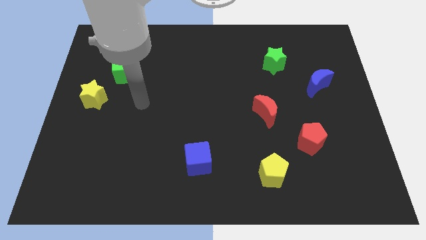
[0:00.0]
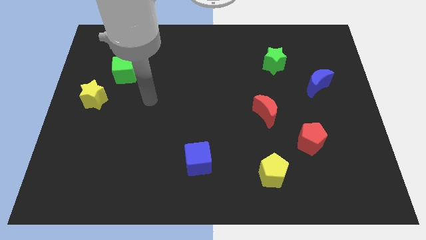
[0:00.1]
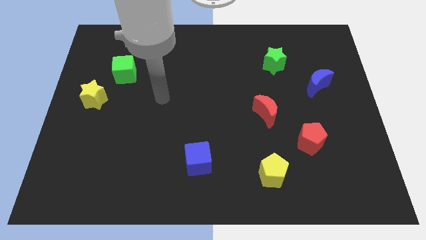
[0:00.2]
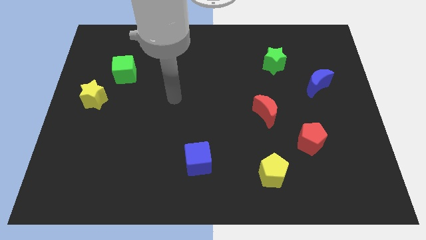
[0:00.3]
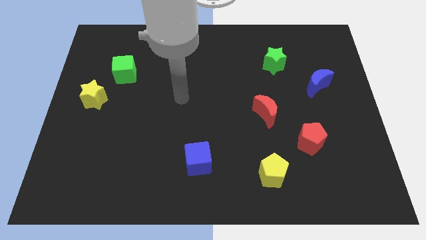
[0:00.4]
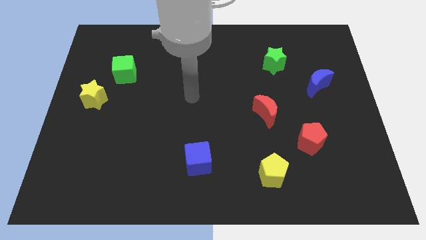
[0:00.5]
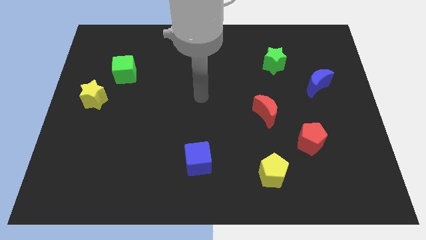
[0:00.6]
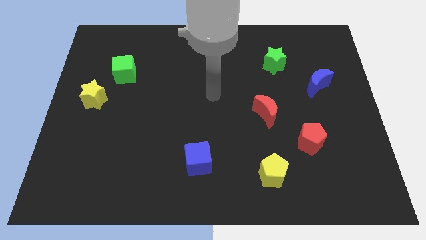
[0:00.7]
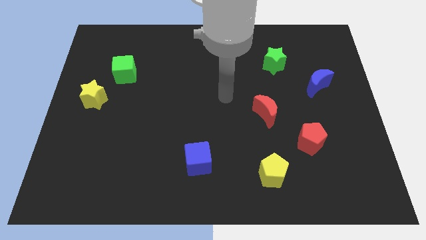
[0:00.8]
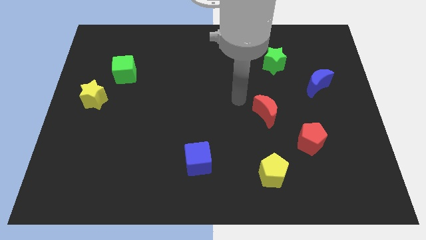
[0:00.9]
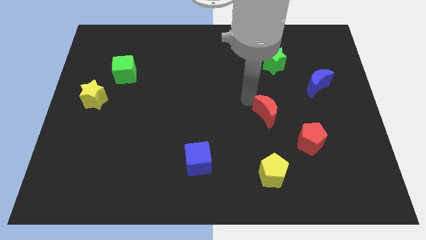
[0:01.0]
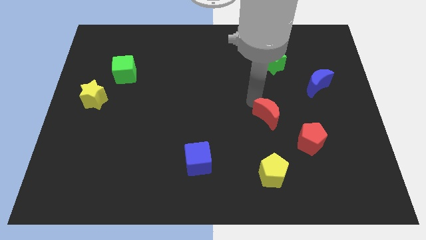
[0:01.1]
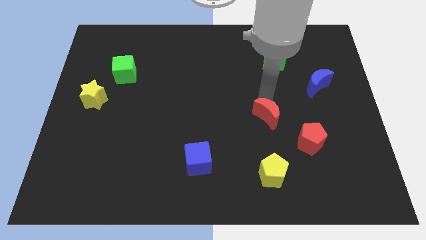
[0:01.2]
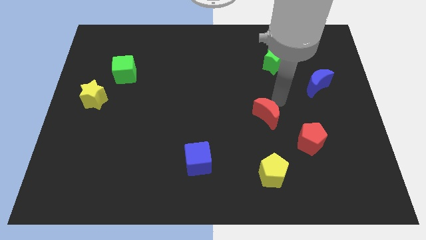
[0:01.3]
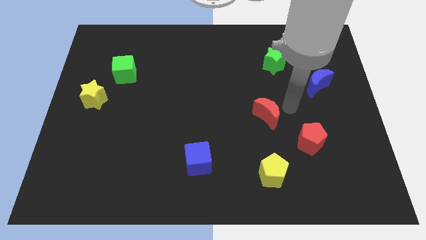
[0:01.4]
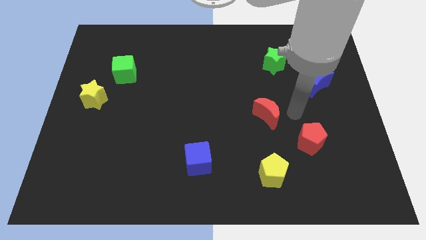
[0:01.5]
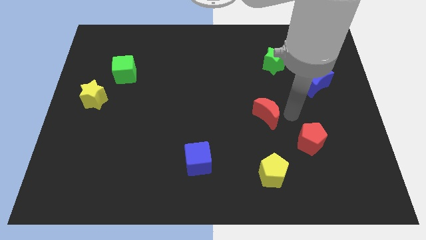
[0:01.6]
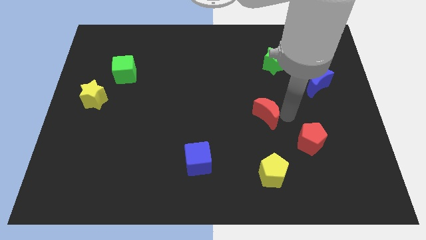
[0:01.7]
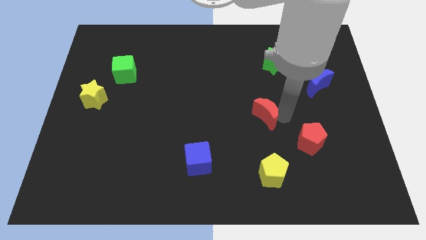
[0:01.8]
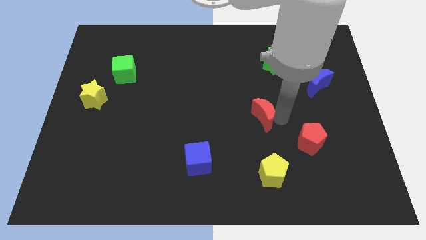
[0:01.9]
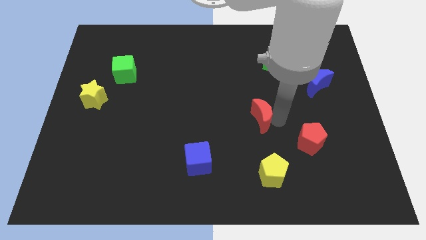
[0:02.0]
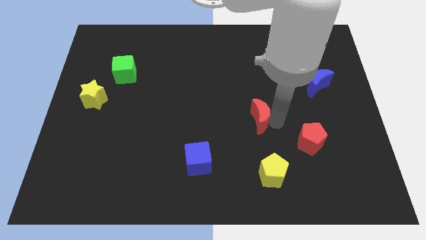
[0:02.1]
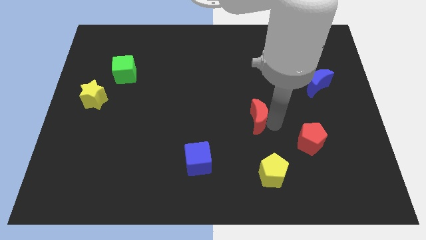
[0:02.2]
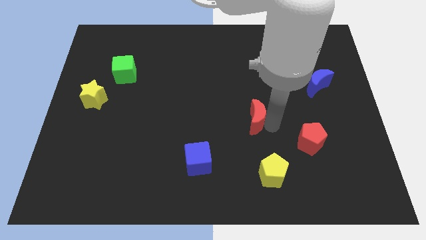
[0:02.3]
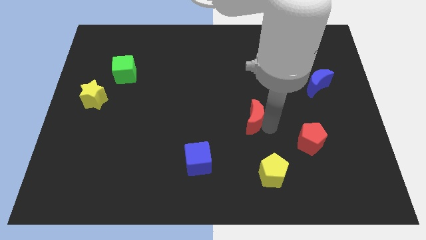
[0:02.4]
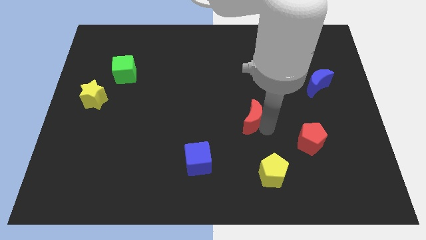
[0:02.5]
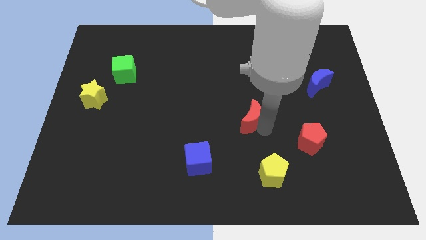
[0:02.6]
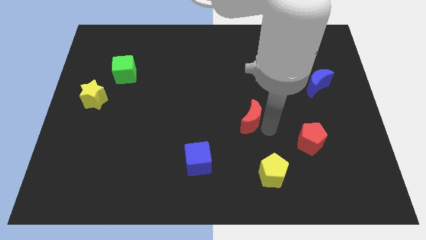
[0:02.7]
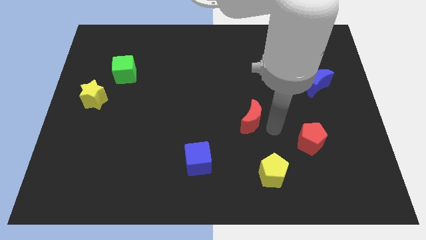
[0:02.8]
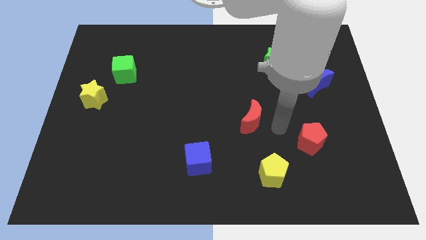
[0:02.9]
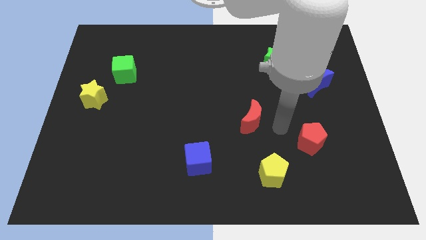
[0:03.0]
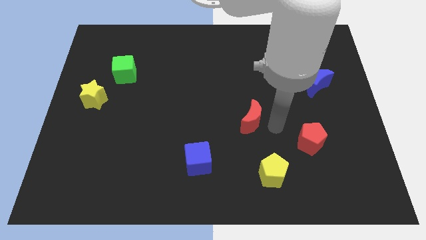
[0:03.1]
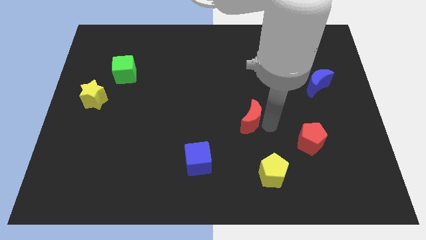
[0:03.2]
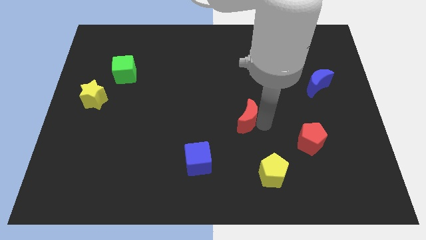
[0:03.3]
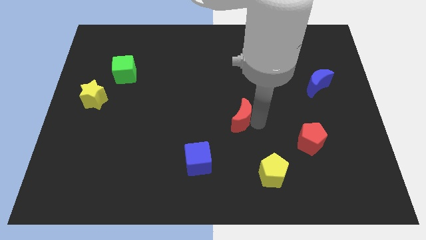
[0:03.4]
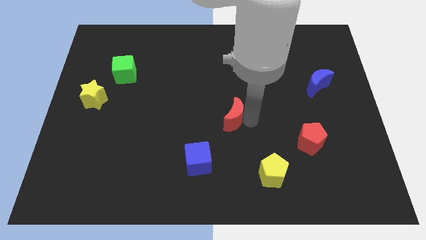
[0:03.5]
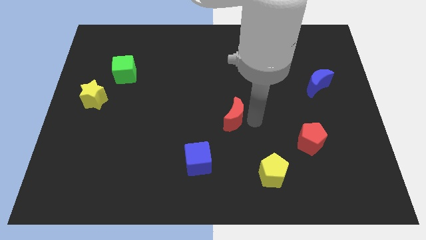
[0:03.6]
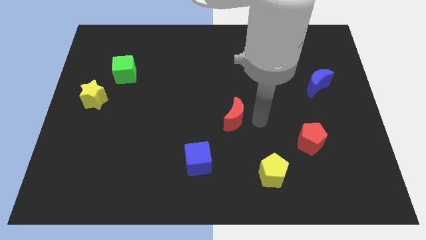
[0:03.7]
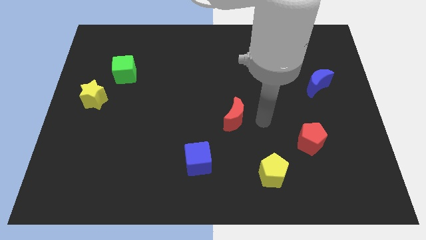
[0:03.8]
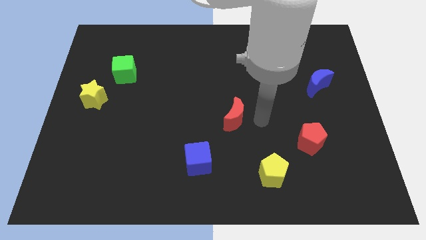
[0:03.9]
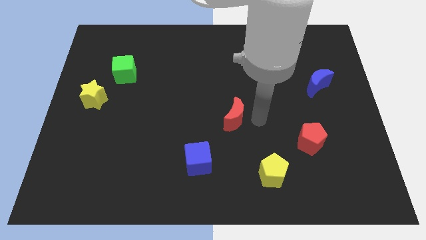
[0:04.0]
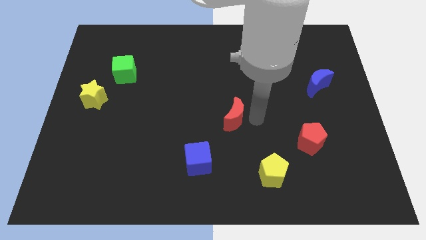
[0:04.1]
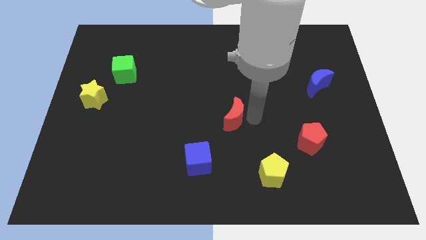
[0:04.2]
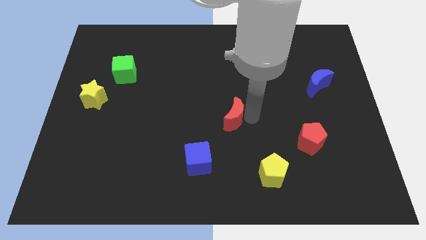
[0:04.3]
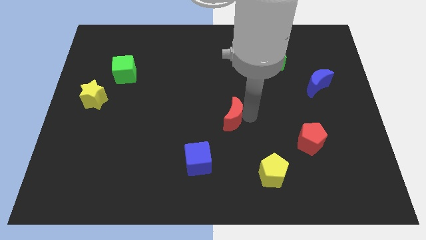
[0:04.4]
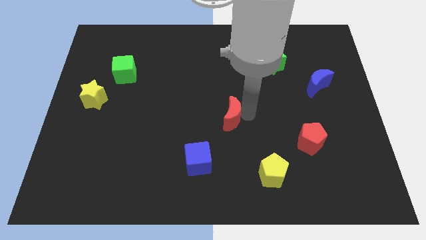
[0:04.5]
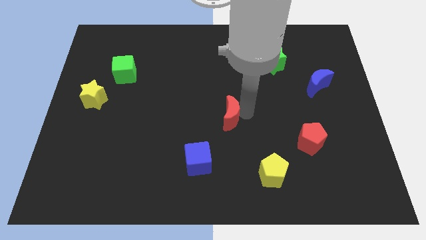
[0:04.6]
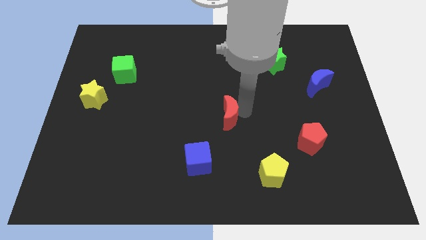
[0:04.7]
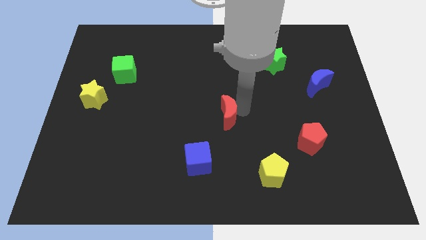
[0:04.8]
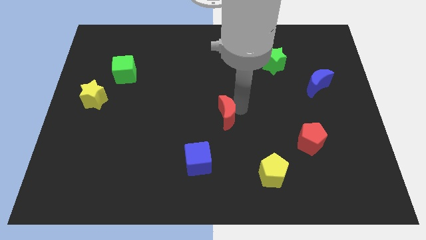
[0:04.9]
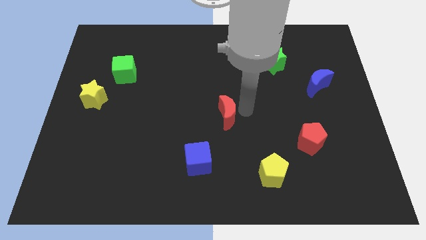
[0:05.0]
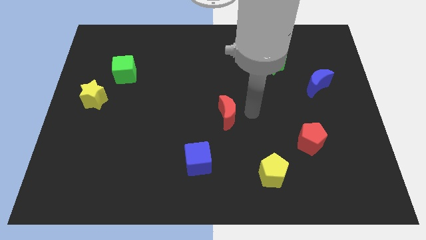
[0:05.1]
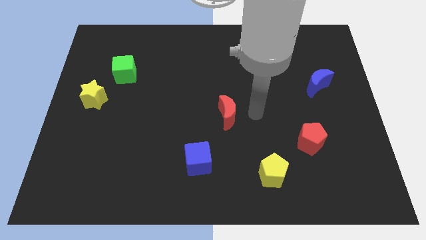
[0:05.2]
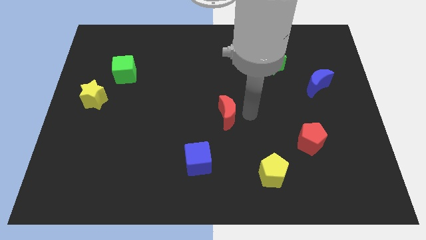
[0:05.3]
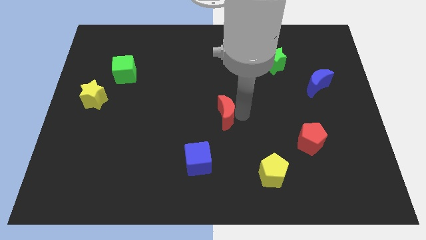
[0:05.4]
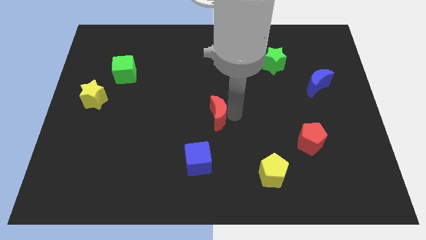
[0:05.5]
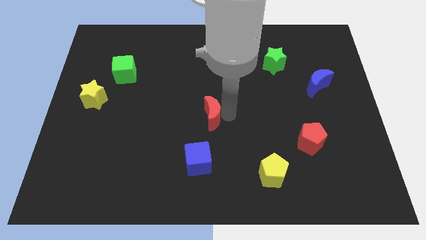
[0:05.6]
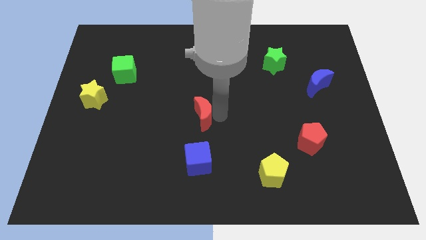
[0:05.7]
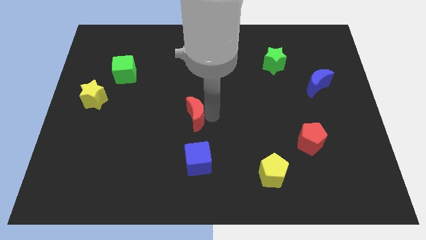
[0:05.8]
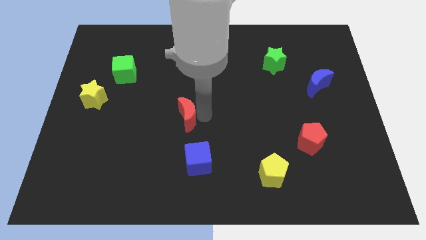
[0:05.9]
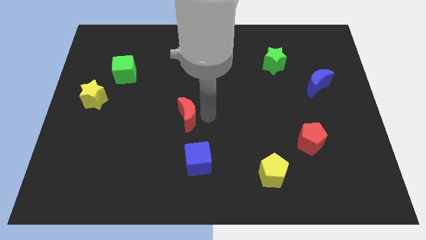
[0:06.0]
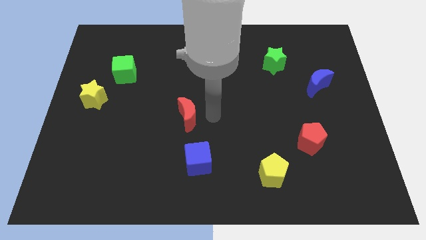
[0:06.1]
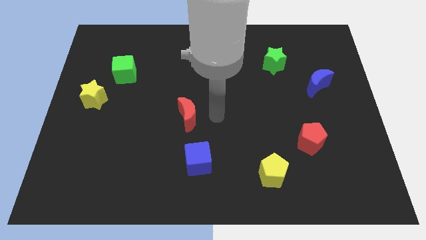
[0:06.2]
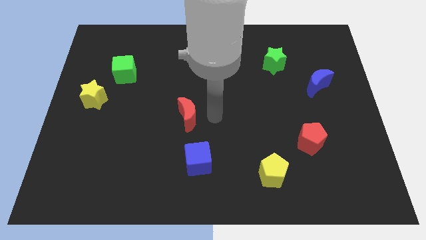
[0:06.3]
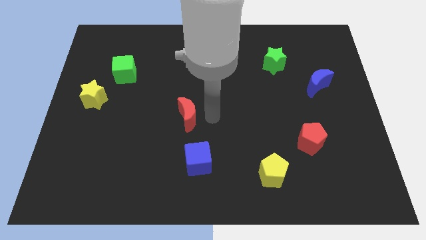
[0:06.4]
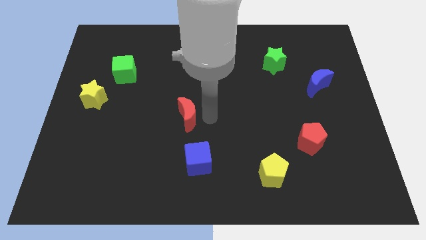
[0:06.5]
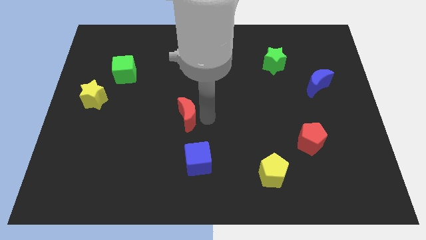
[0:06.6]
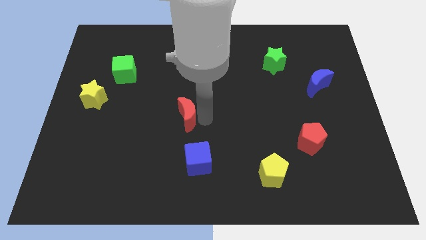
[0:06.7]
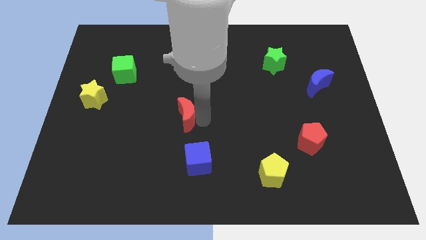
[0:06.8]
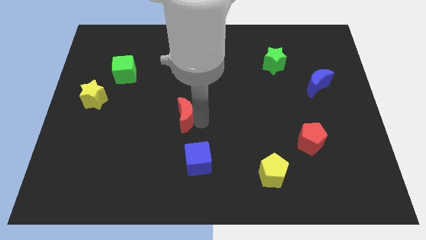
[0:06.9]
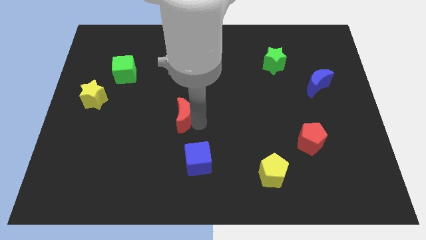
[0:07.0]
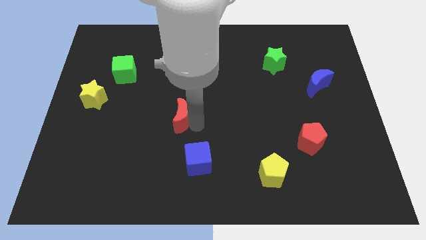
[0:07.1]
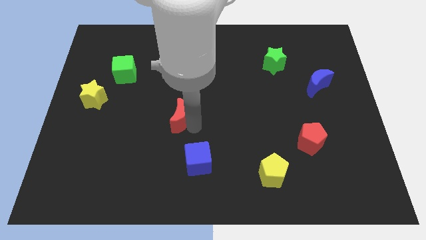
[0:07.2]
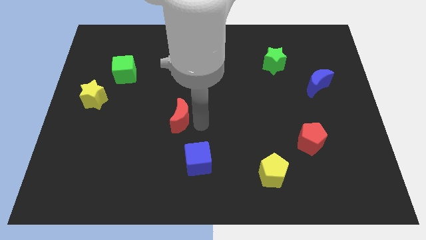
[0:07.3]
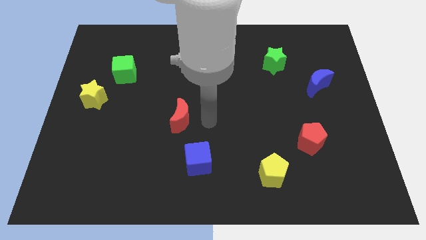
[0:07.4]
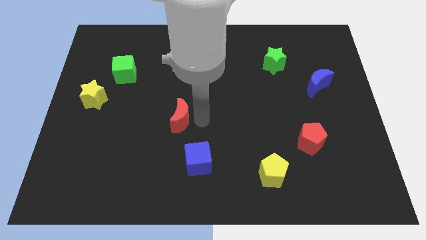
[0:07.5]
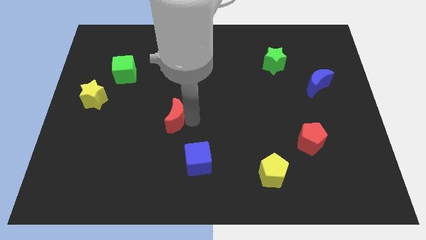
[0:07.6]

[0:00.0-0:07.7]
move the red moon left
